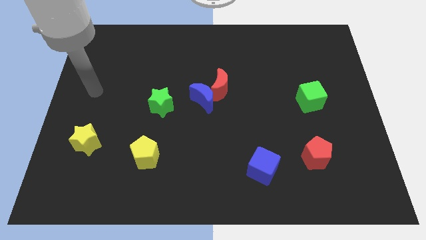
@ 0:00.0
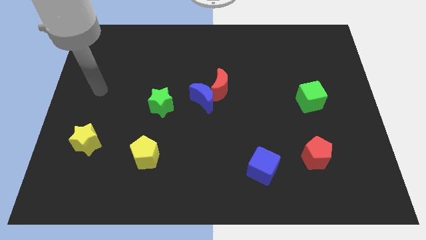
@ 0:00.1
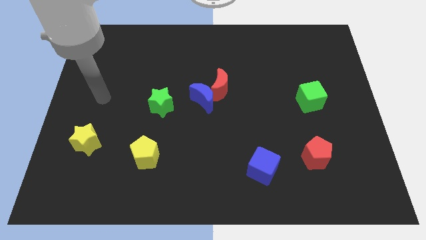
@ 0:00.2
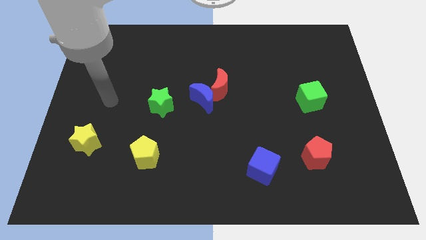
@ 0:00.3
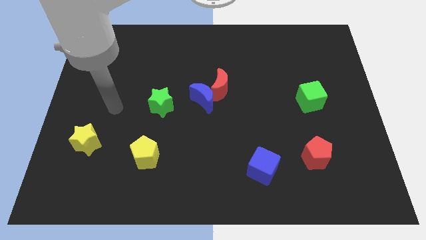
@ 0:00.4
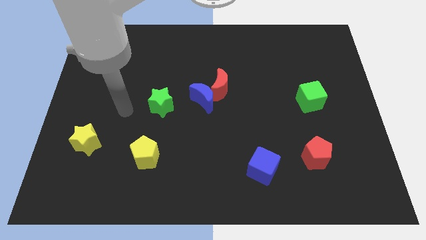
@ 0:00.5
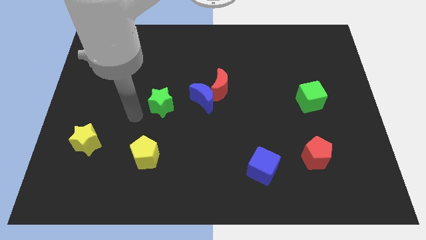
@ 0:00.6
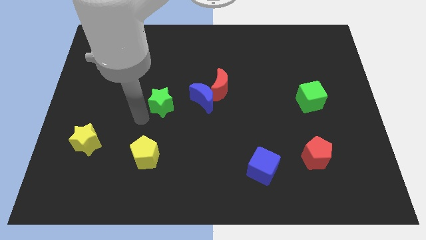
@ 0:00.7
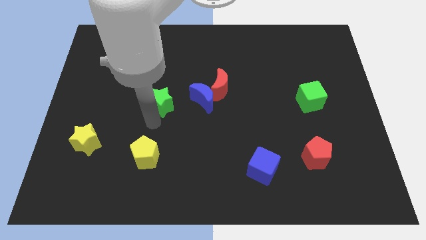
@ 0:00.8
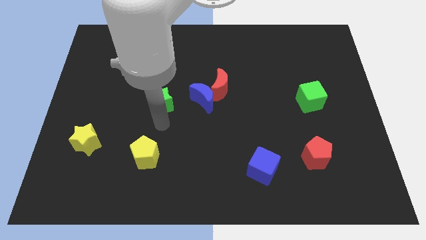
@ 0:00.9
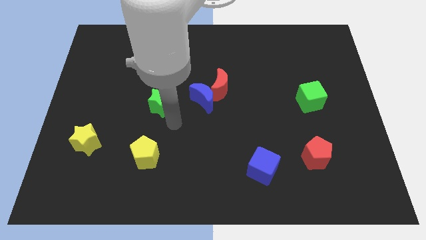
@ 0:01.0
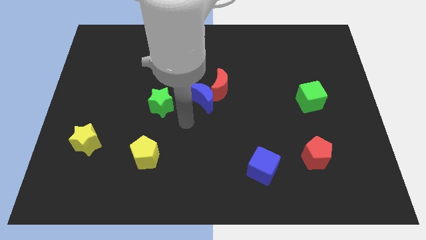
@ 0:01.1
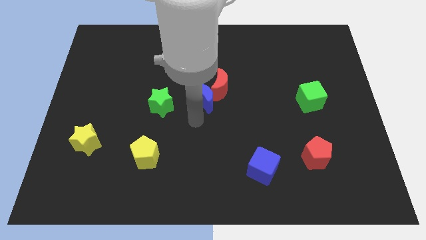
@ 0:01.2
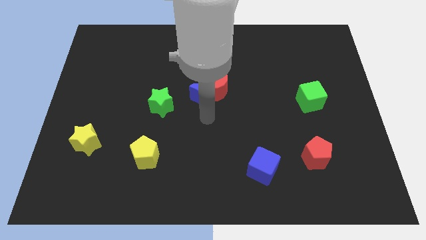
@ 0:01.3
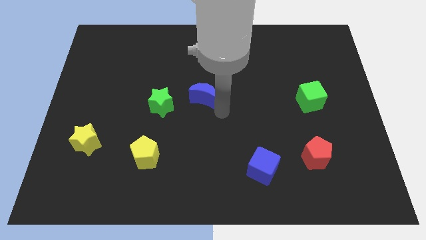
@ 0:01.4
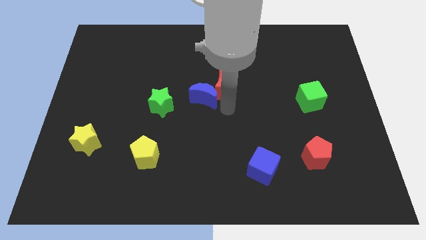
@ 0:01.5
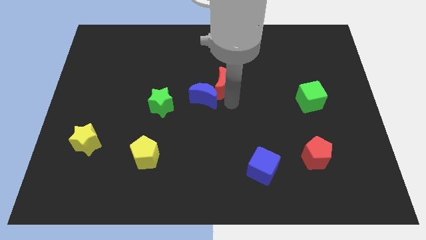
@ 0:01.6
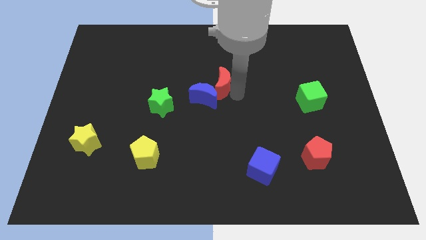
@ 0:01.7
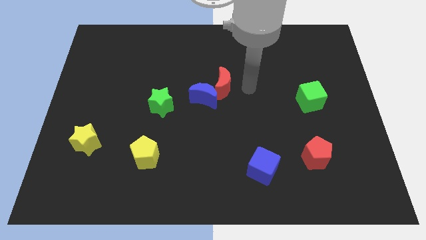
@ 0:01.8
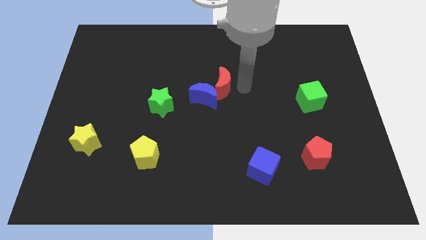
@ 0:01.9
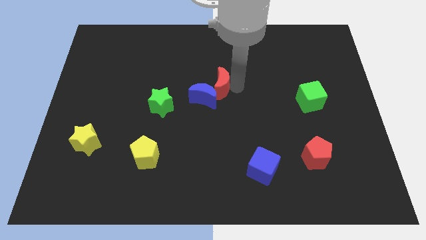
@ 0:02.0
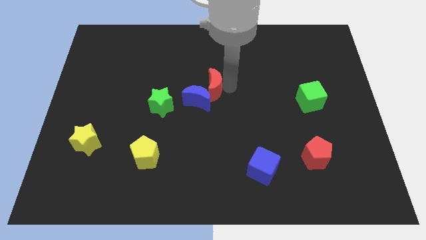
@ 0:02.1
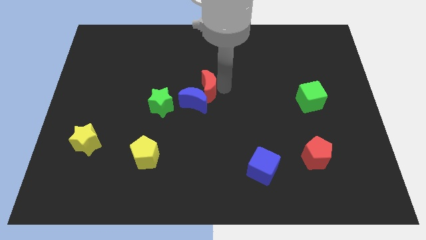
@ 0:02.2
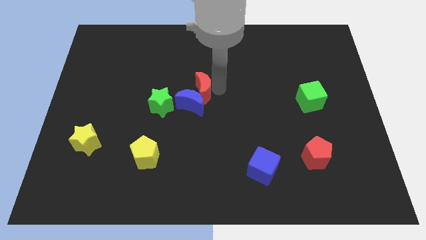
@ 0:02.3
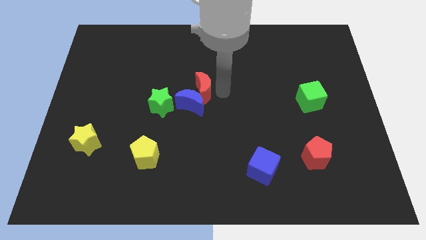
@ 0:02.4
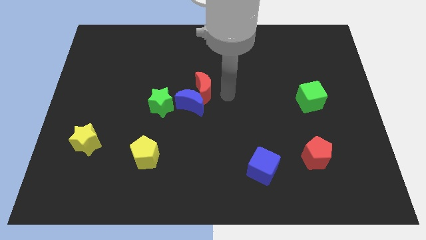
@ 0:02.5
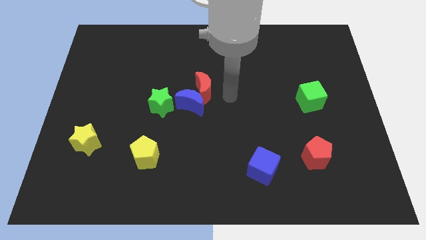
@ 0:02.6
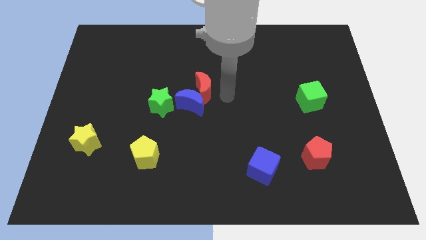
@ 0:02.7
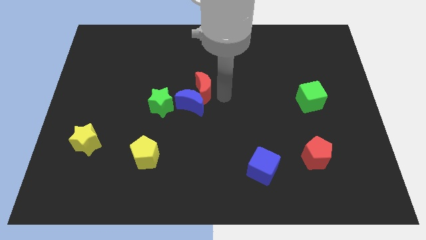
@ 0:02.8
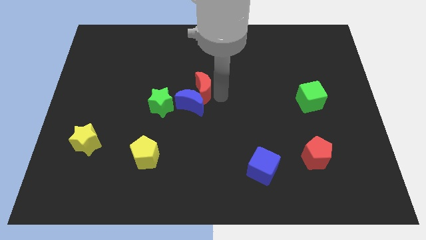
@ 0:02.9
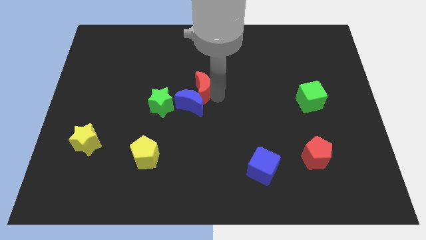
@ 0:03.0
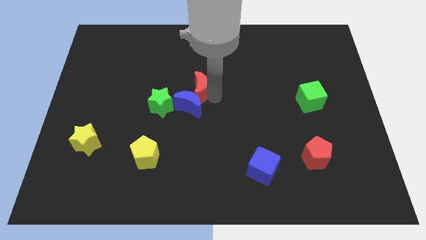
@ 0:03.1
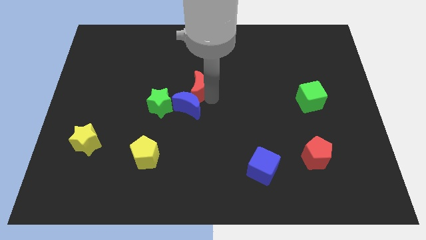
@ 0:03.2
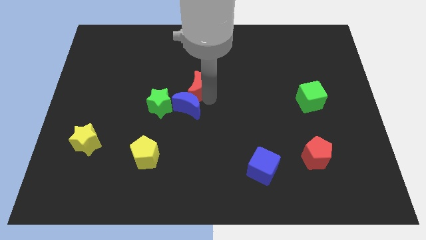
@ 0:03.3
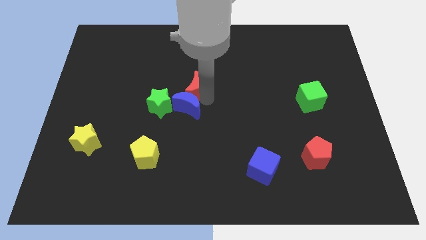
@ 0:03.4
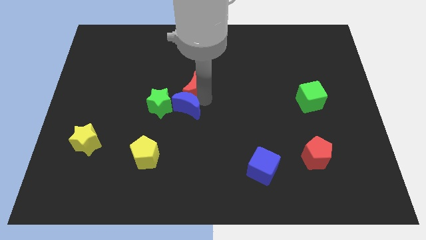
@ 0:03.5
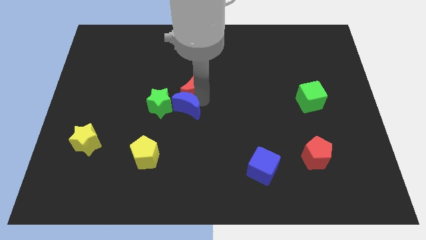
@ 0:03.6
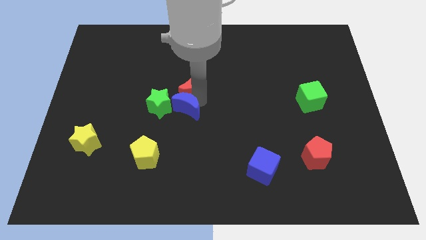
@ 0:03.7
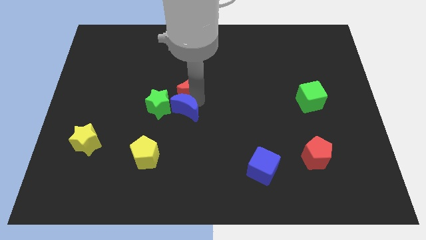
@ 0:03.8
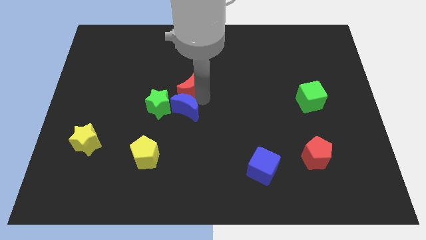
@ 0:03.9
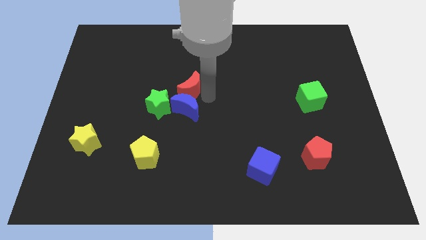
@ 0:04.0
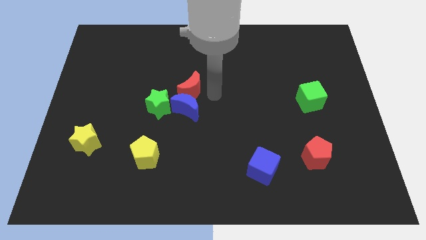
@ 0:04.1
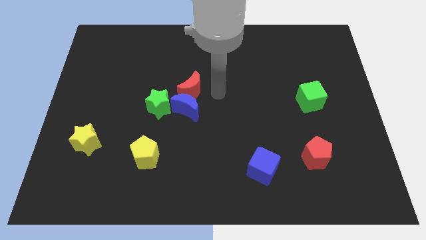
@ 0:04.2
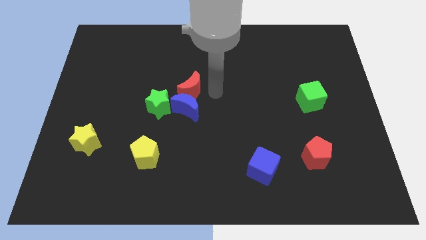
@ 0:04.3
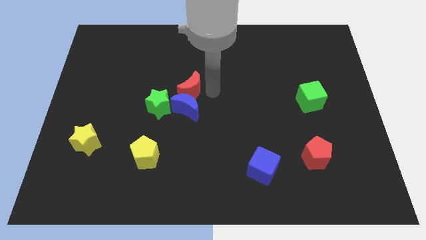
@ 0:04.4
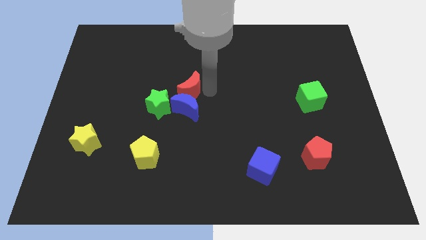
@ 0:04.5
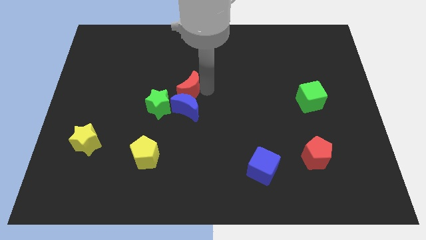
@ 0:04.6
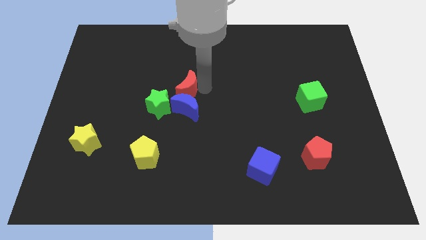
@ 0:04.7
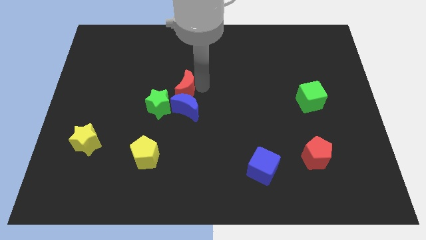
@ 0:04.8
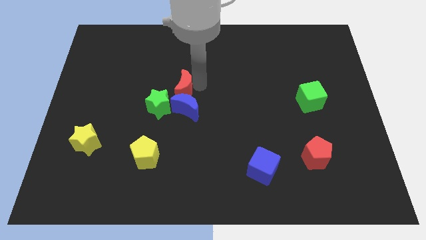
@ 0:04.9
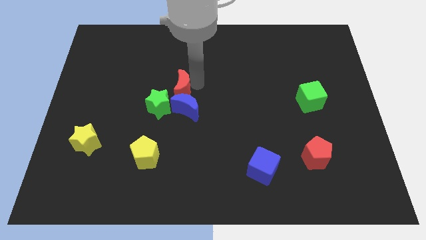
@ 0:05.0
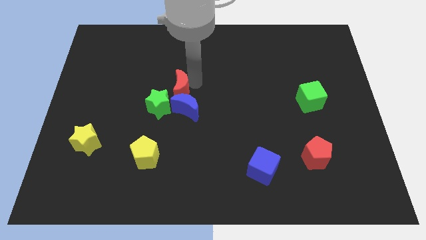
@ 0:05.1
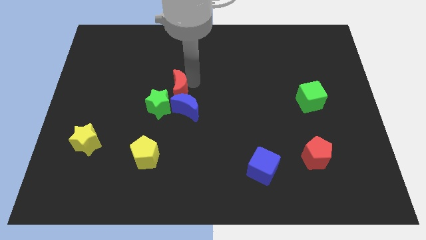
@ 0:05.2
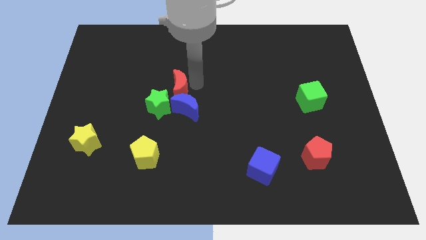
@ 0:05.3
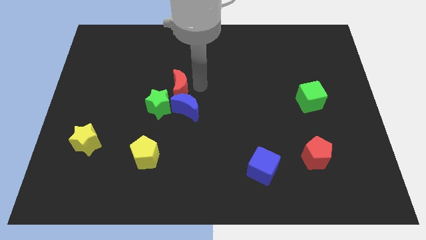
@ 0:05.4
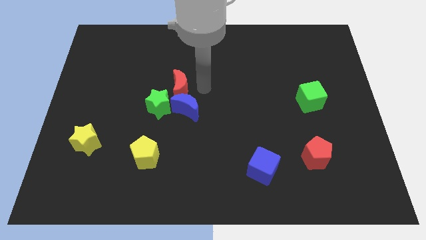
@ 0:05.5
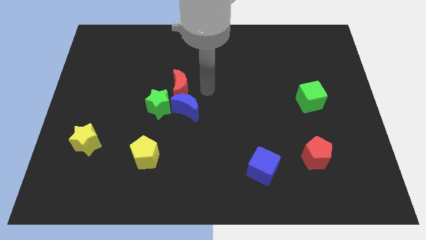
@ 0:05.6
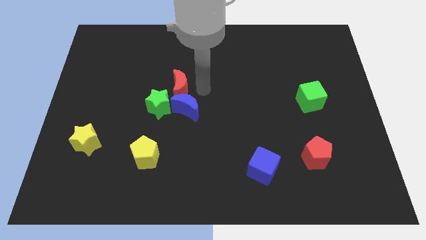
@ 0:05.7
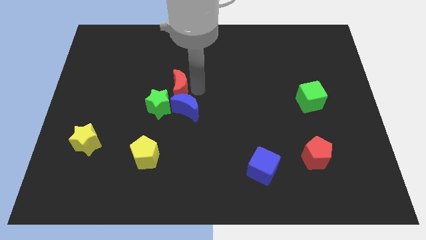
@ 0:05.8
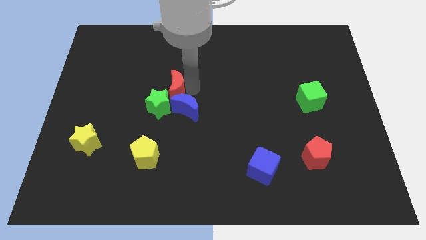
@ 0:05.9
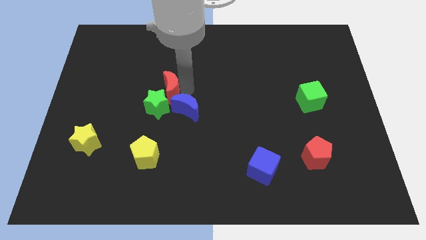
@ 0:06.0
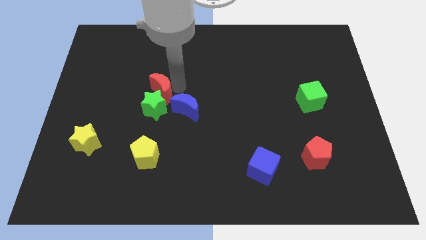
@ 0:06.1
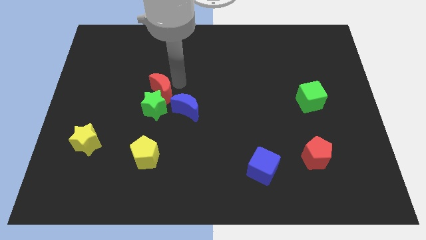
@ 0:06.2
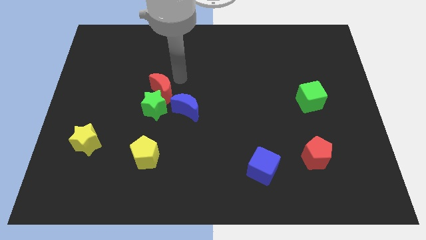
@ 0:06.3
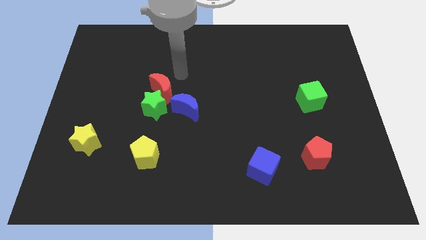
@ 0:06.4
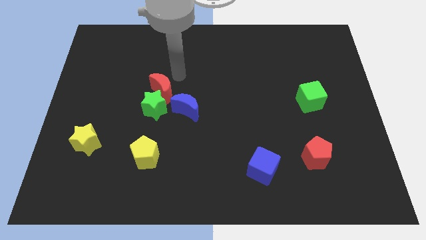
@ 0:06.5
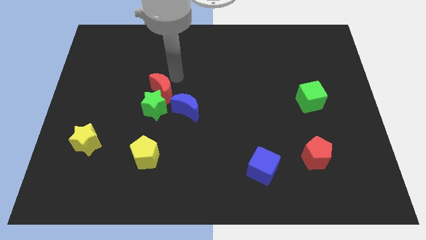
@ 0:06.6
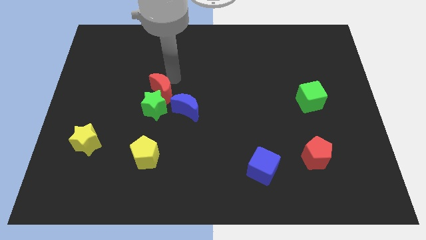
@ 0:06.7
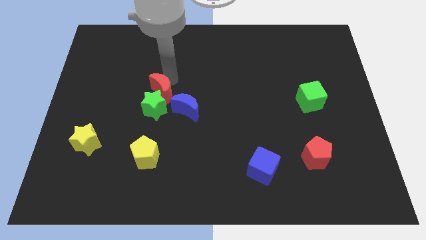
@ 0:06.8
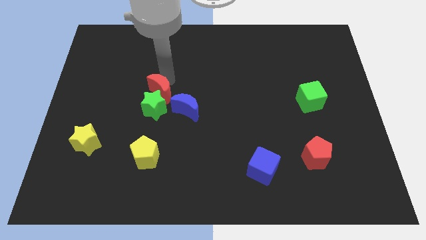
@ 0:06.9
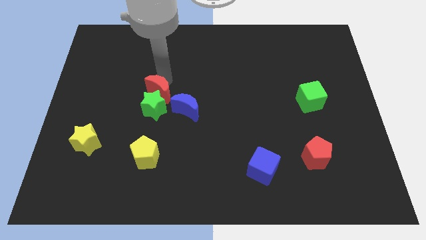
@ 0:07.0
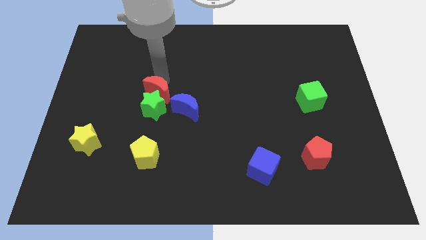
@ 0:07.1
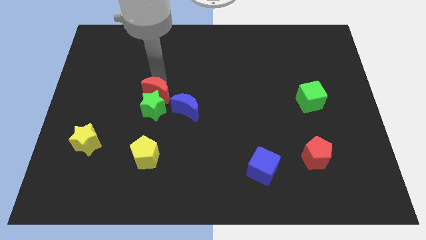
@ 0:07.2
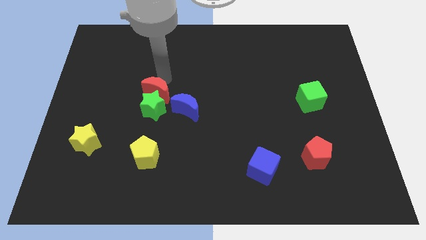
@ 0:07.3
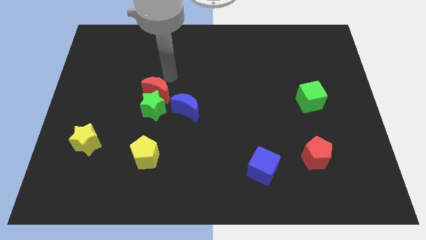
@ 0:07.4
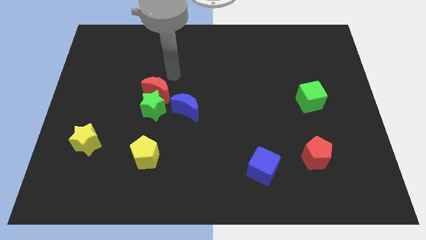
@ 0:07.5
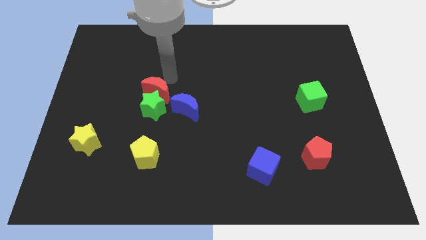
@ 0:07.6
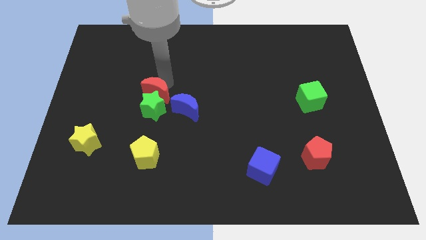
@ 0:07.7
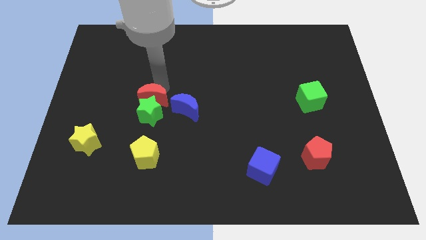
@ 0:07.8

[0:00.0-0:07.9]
slide the red moon left of the blue moon
